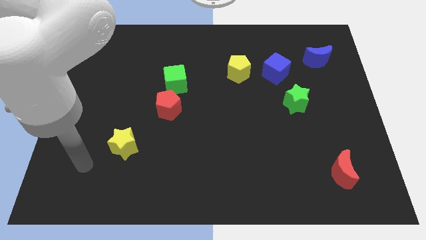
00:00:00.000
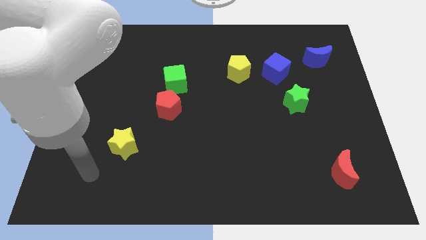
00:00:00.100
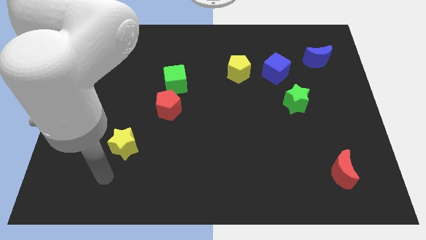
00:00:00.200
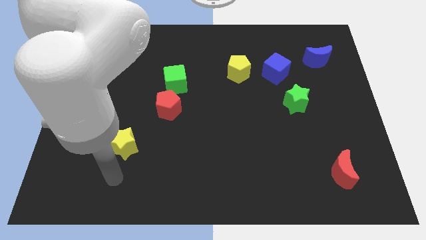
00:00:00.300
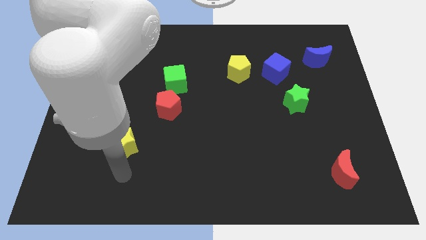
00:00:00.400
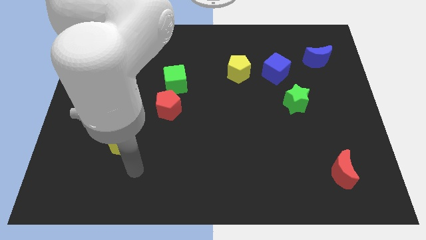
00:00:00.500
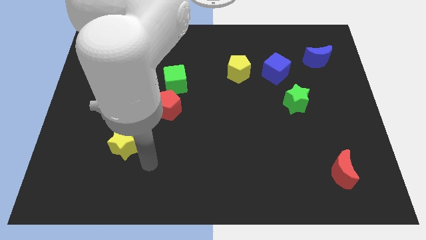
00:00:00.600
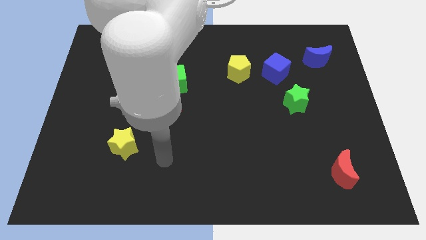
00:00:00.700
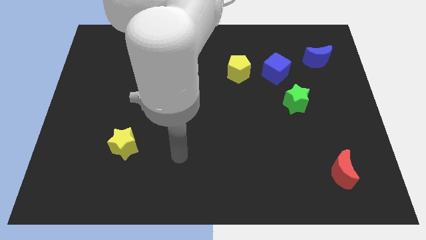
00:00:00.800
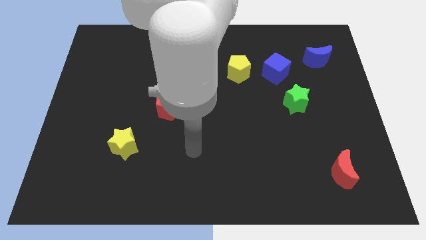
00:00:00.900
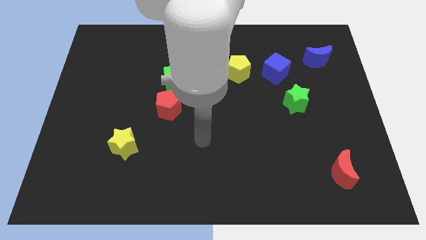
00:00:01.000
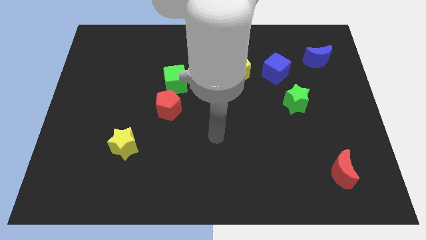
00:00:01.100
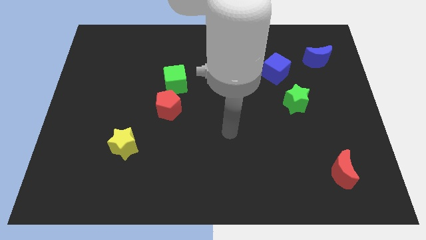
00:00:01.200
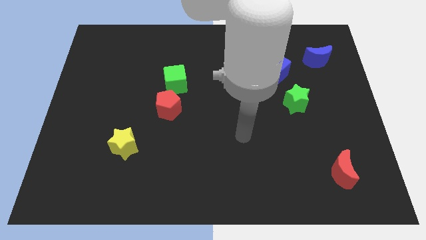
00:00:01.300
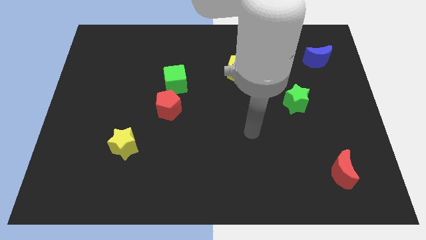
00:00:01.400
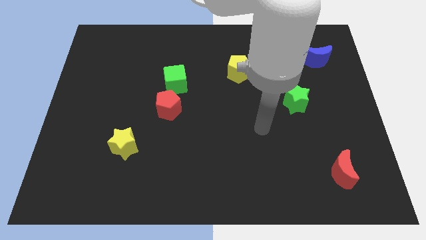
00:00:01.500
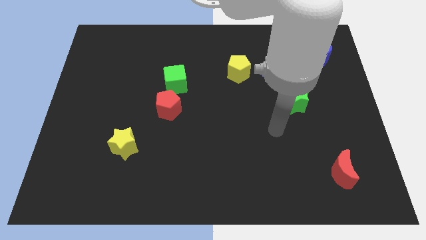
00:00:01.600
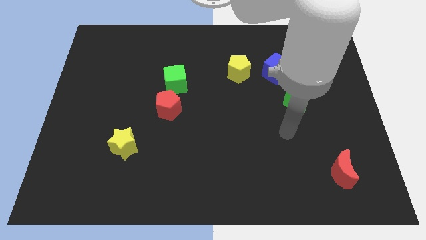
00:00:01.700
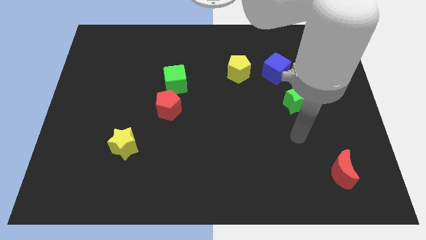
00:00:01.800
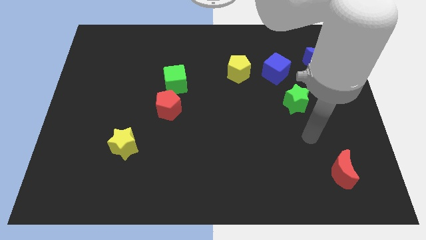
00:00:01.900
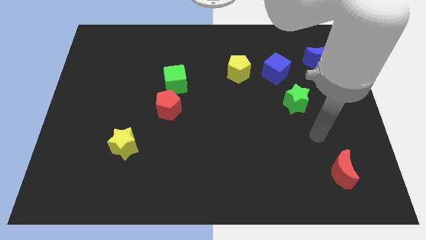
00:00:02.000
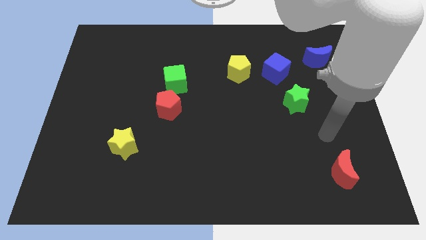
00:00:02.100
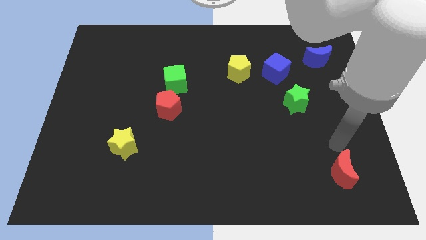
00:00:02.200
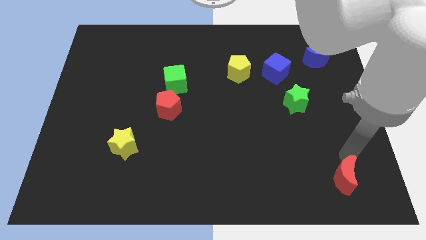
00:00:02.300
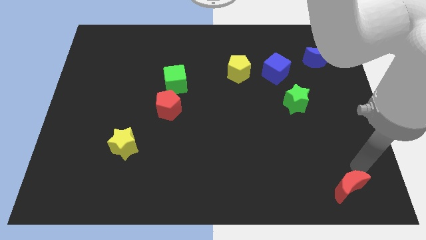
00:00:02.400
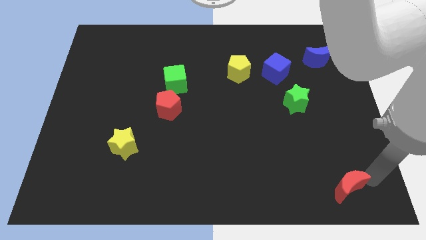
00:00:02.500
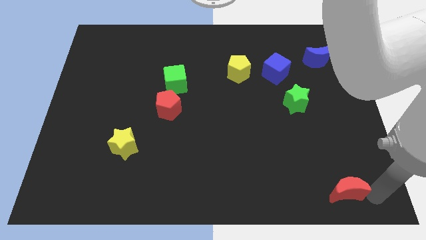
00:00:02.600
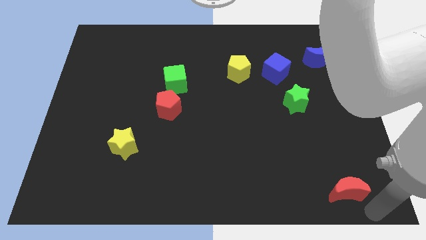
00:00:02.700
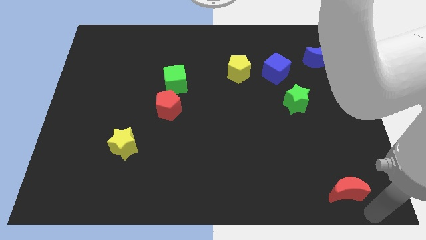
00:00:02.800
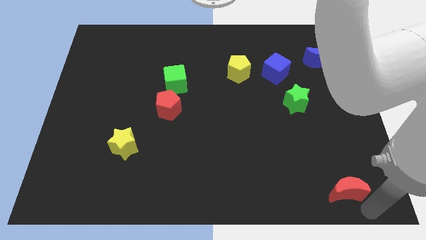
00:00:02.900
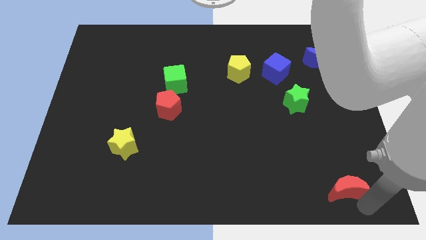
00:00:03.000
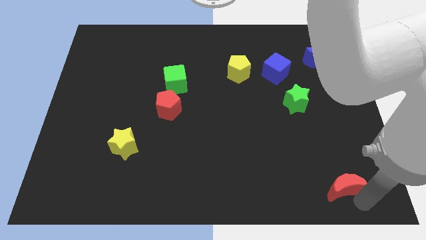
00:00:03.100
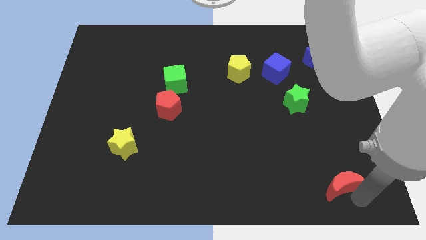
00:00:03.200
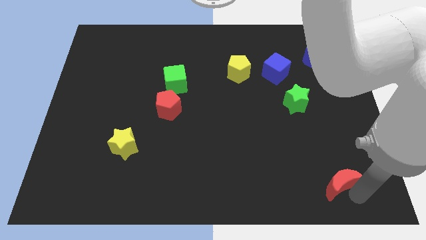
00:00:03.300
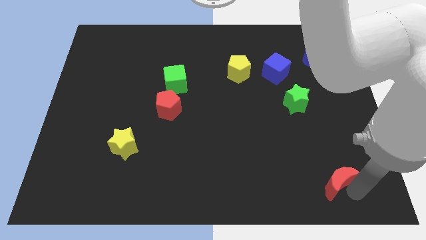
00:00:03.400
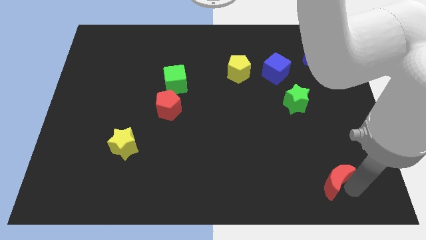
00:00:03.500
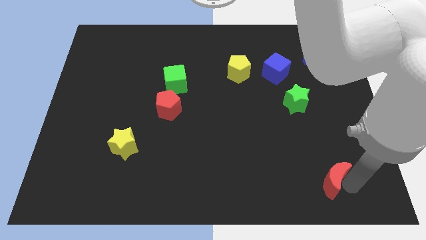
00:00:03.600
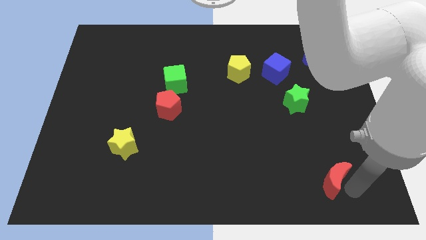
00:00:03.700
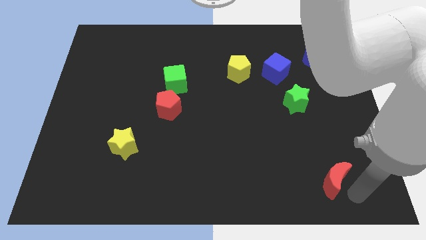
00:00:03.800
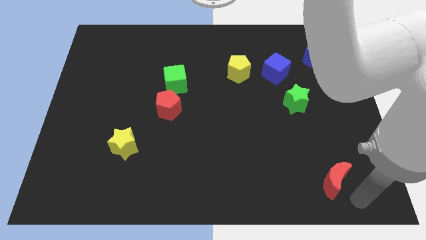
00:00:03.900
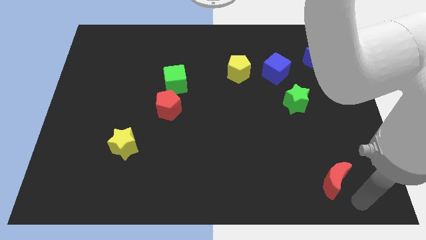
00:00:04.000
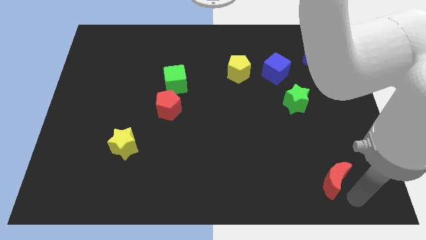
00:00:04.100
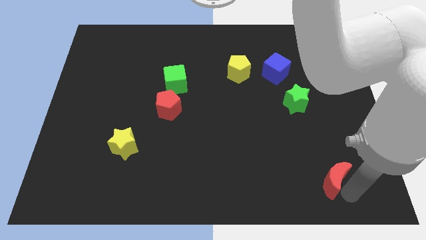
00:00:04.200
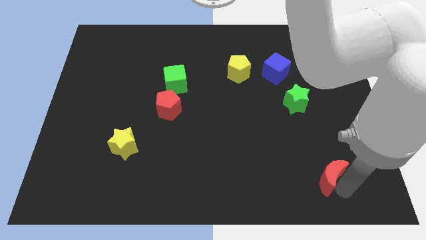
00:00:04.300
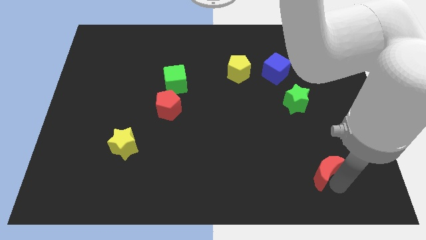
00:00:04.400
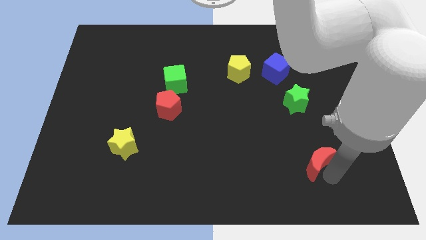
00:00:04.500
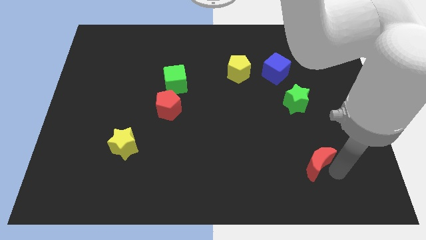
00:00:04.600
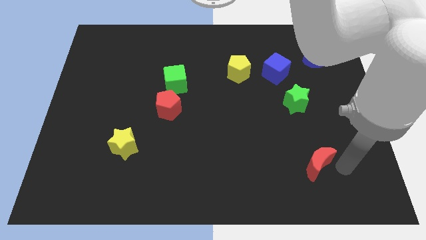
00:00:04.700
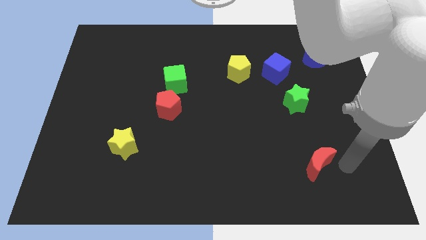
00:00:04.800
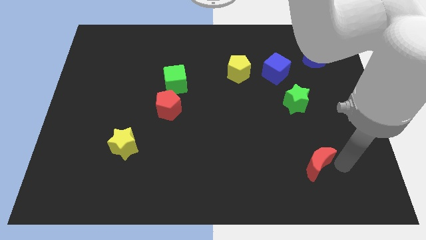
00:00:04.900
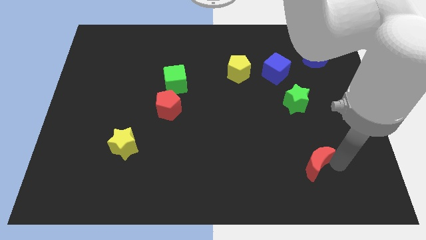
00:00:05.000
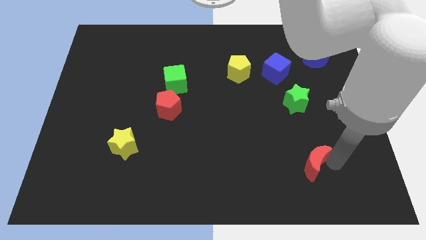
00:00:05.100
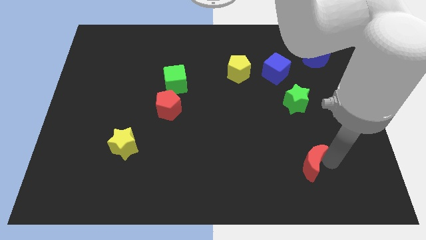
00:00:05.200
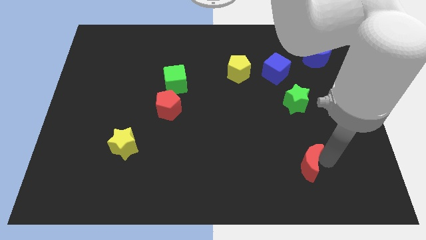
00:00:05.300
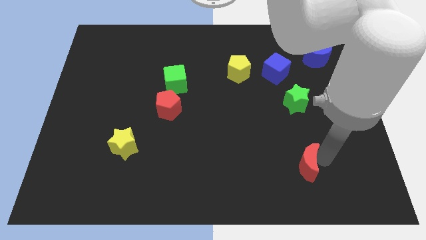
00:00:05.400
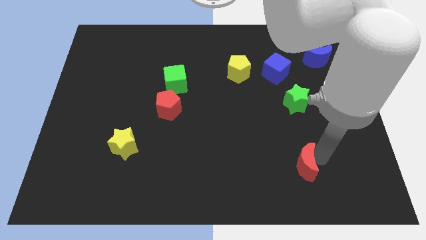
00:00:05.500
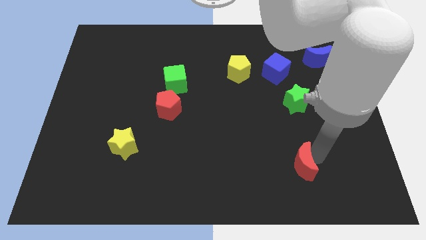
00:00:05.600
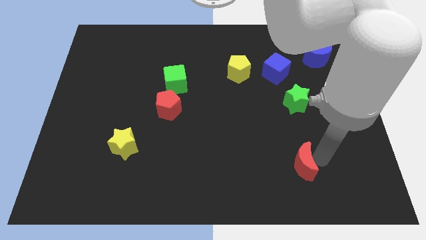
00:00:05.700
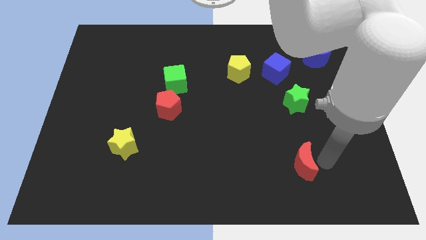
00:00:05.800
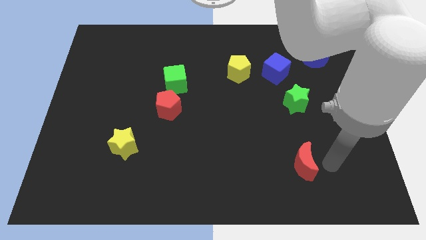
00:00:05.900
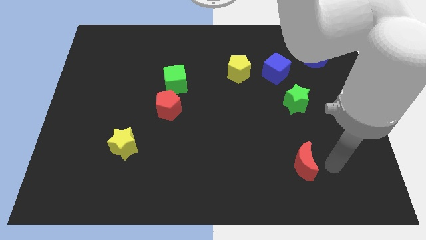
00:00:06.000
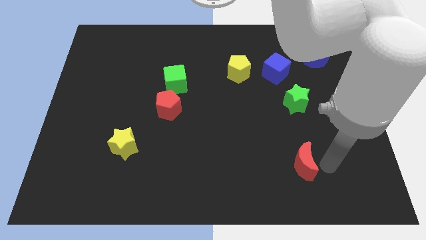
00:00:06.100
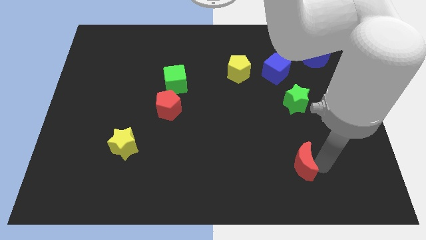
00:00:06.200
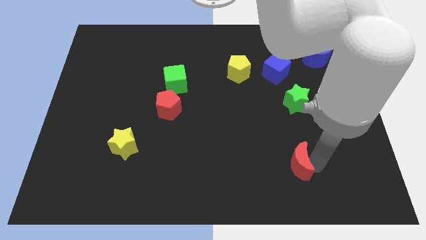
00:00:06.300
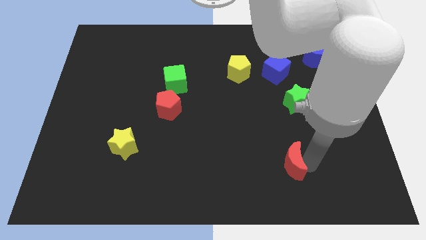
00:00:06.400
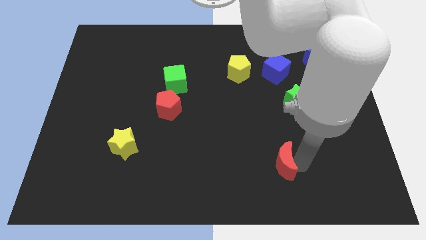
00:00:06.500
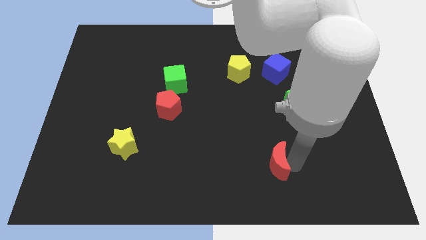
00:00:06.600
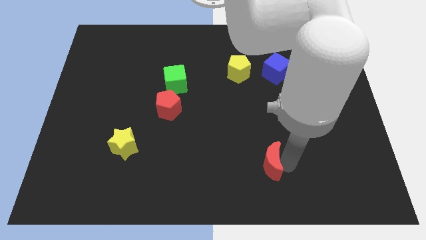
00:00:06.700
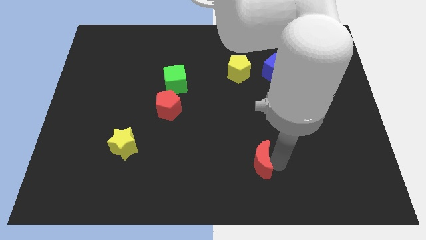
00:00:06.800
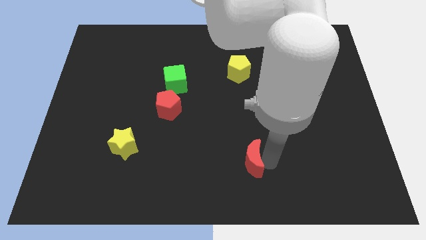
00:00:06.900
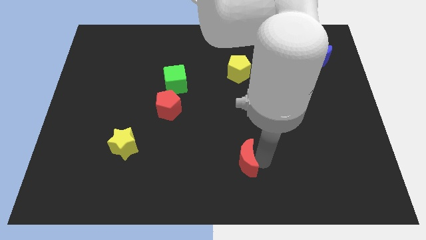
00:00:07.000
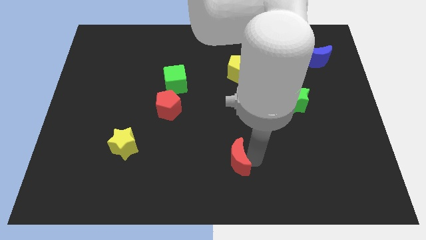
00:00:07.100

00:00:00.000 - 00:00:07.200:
push the red moon to the left

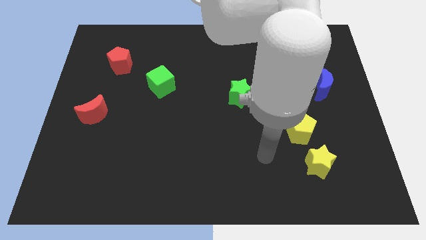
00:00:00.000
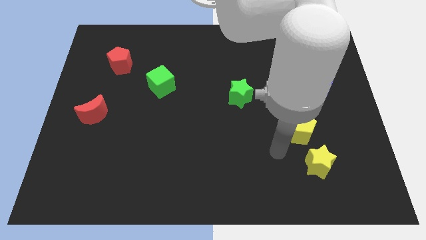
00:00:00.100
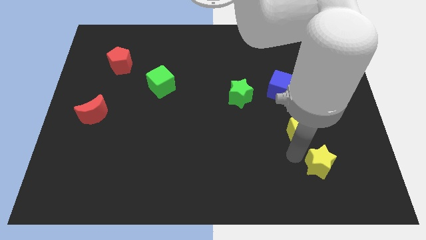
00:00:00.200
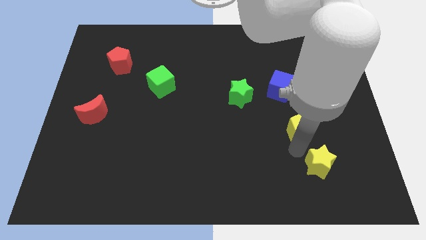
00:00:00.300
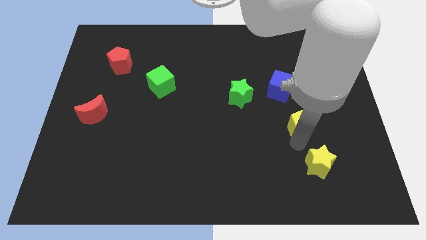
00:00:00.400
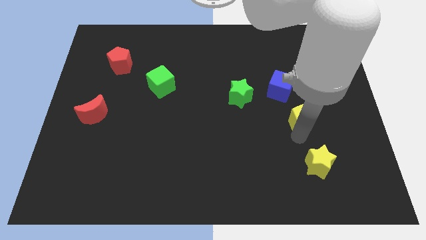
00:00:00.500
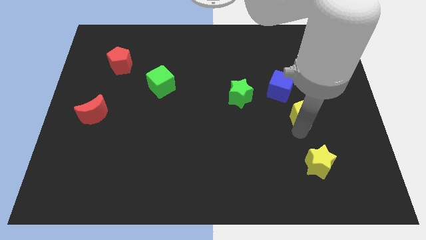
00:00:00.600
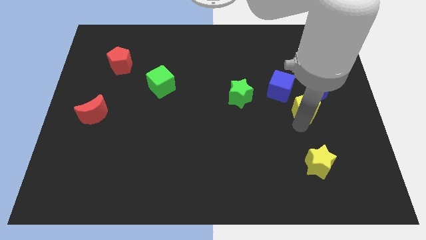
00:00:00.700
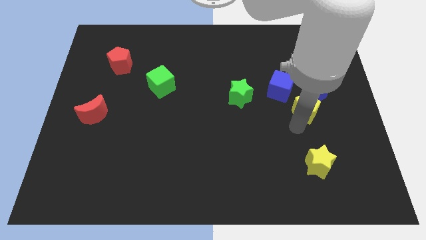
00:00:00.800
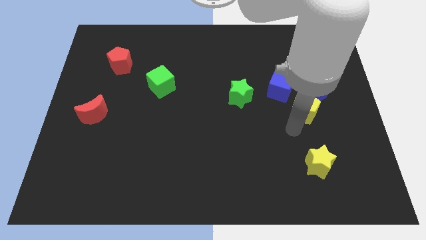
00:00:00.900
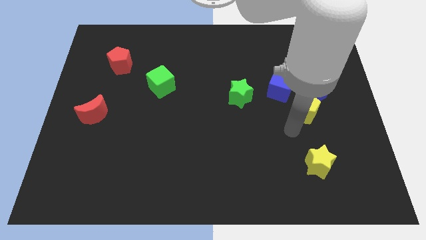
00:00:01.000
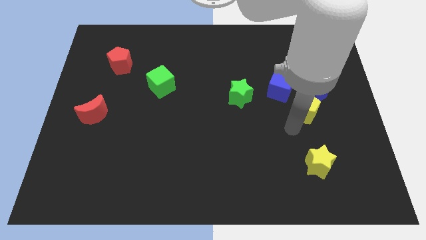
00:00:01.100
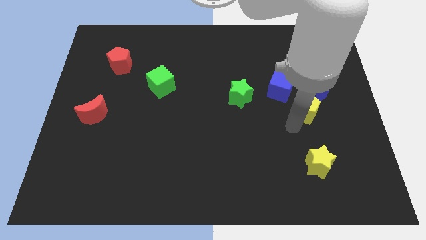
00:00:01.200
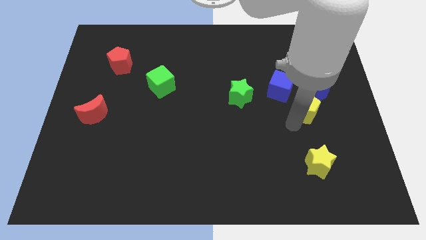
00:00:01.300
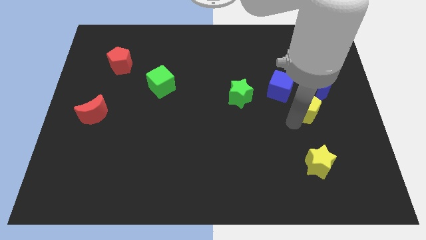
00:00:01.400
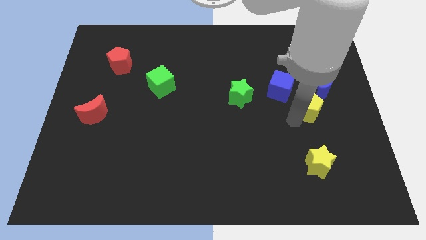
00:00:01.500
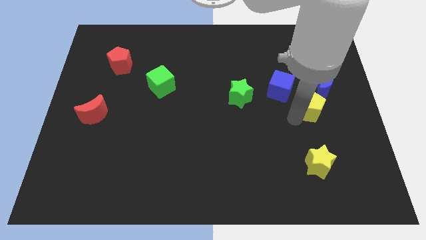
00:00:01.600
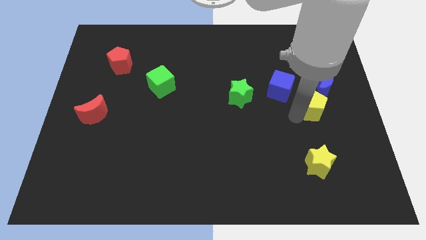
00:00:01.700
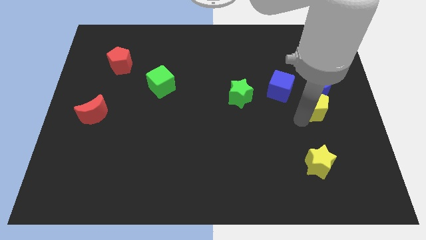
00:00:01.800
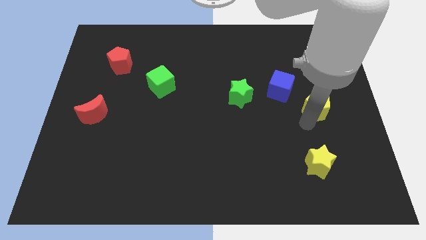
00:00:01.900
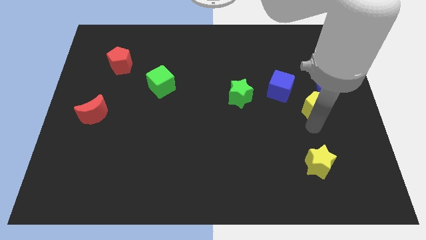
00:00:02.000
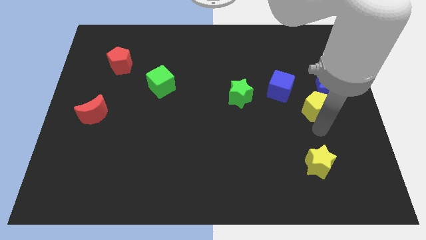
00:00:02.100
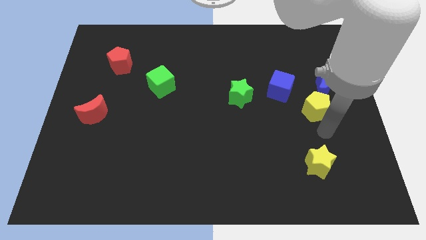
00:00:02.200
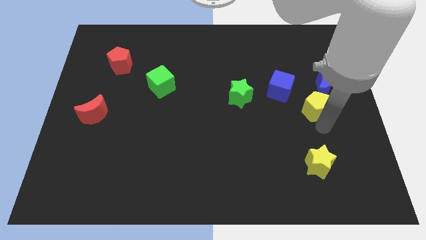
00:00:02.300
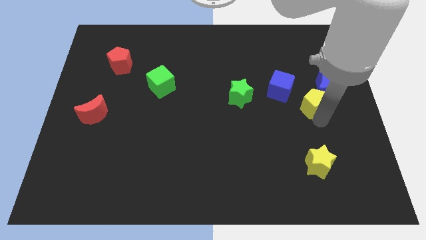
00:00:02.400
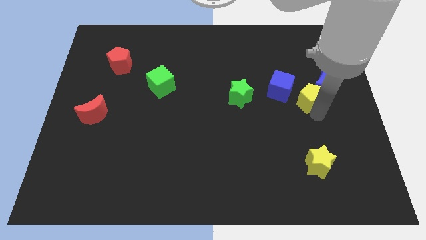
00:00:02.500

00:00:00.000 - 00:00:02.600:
move the yellow pentagon up somewhat
